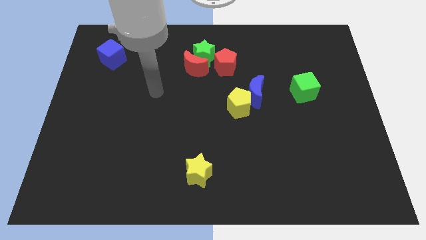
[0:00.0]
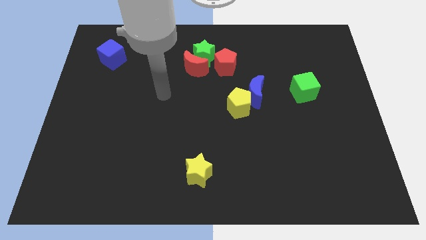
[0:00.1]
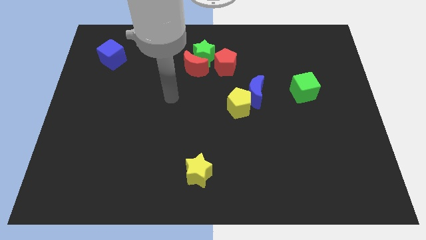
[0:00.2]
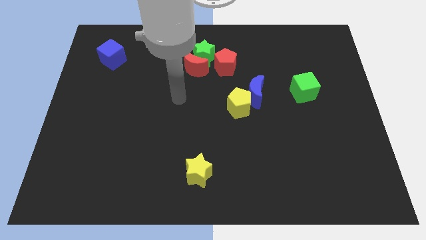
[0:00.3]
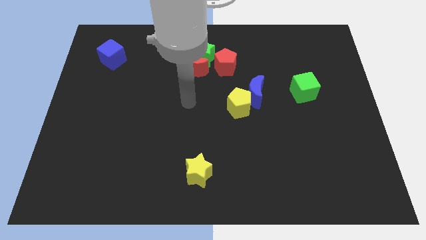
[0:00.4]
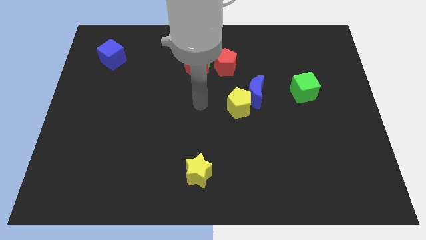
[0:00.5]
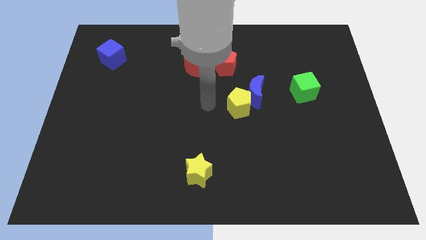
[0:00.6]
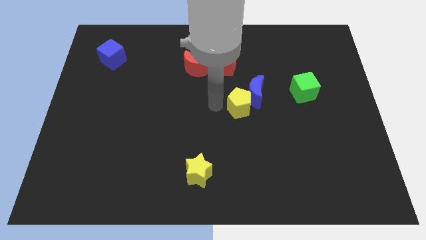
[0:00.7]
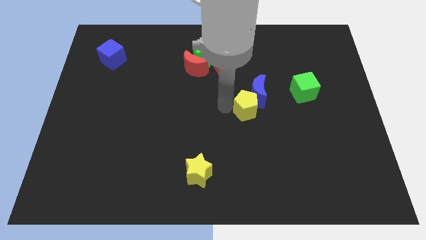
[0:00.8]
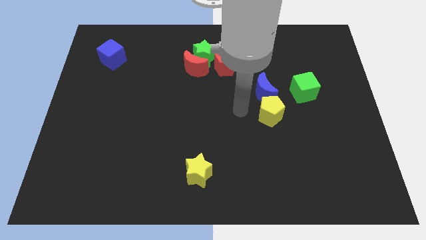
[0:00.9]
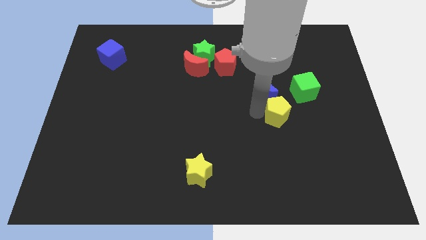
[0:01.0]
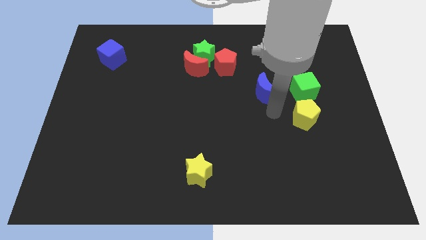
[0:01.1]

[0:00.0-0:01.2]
pull the blue moon apart from the yellow pentagon

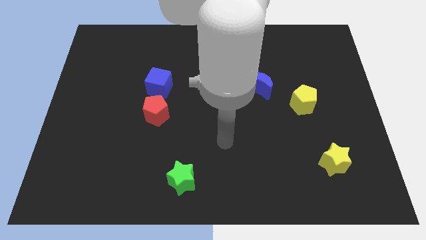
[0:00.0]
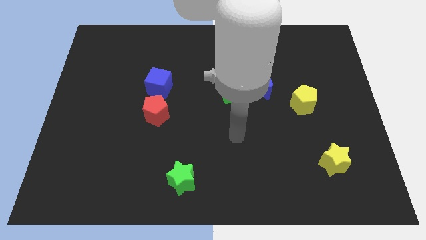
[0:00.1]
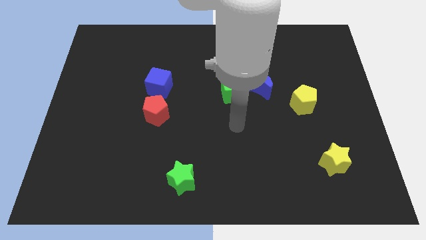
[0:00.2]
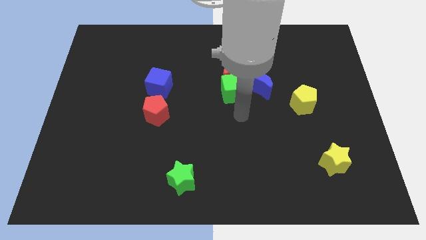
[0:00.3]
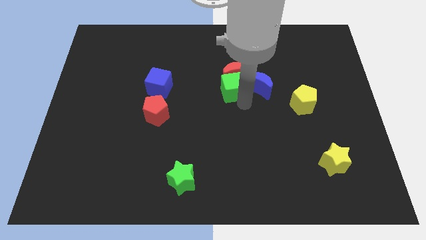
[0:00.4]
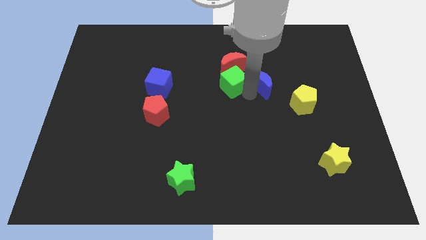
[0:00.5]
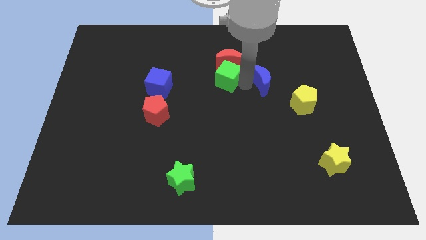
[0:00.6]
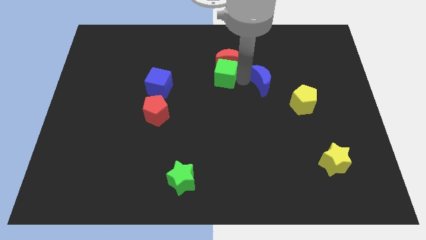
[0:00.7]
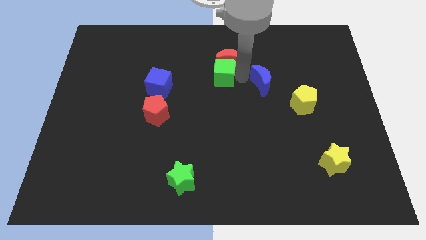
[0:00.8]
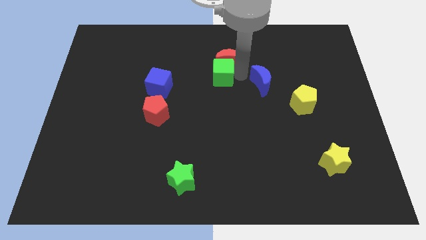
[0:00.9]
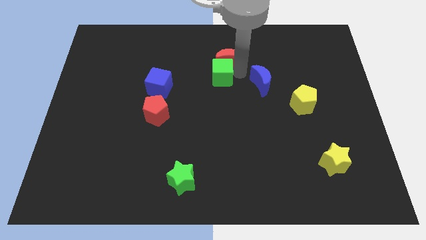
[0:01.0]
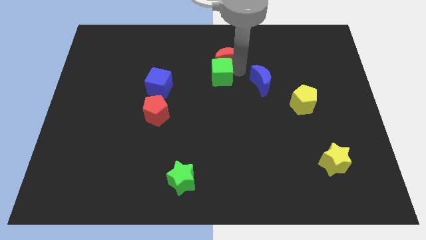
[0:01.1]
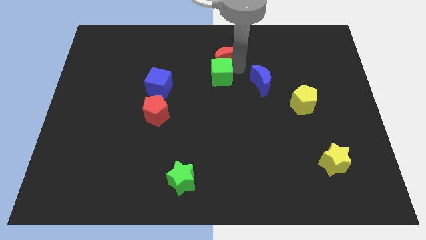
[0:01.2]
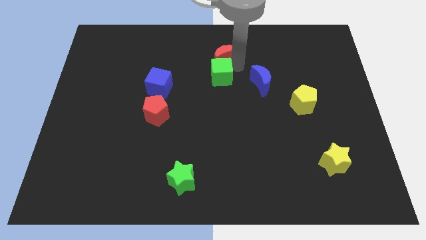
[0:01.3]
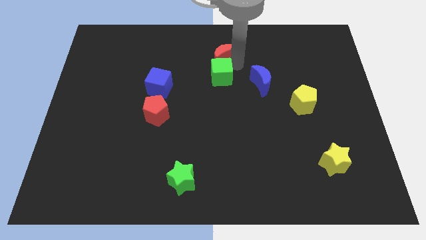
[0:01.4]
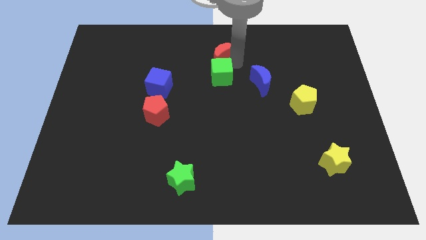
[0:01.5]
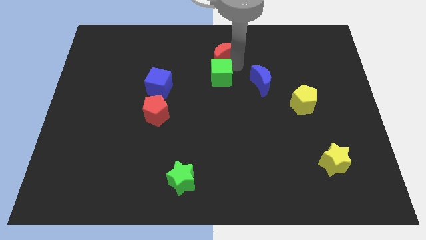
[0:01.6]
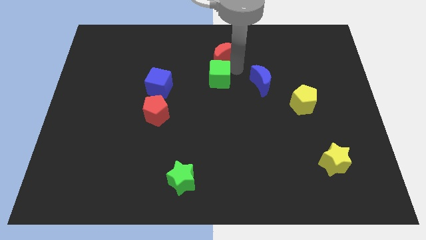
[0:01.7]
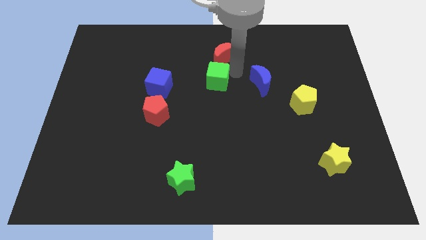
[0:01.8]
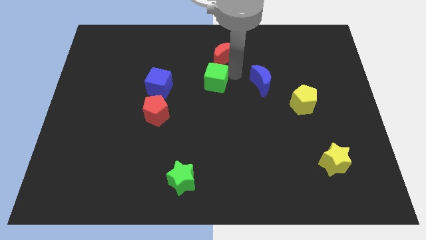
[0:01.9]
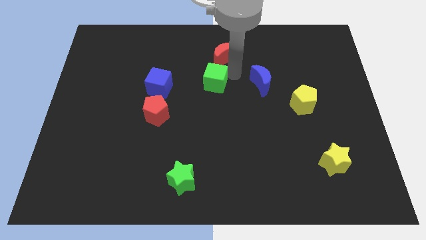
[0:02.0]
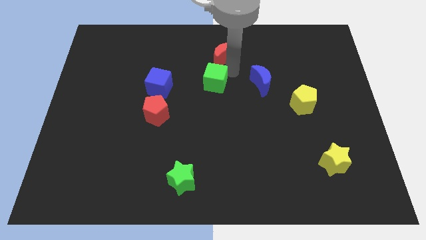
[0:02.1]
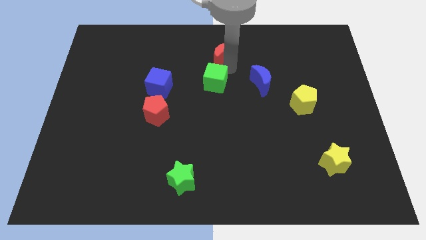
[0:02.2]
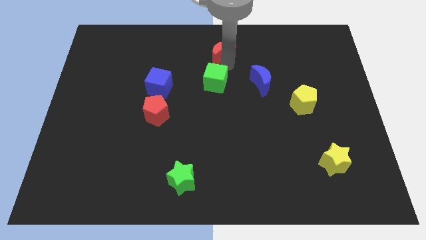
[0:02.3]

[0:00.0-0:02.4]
move the red moon away from the green cube and blue moon

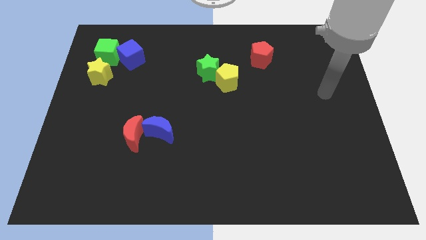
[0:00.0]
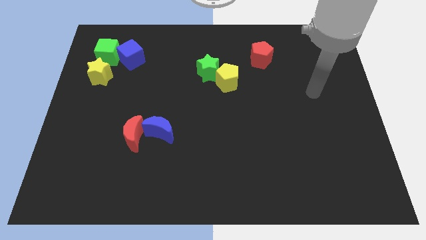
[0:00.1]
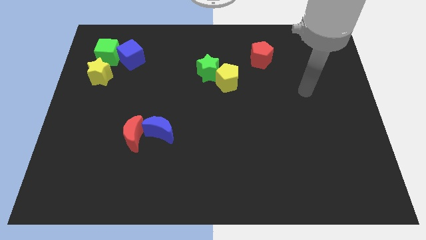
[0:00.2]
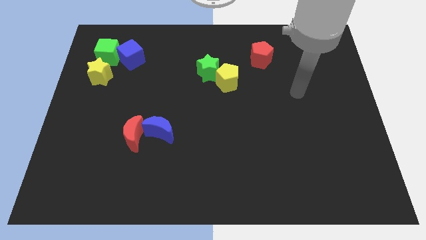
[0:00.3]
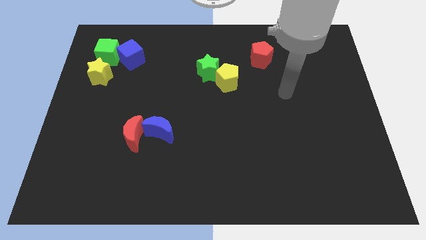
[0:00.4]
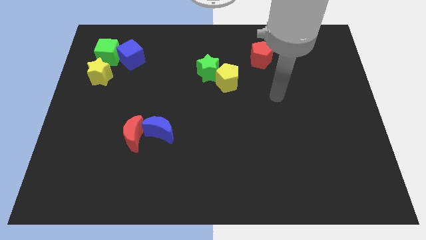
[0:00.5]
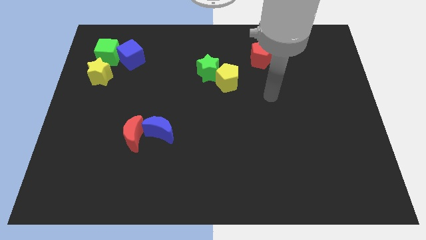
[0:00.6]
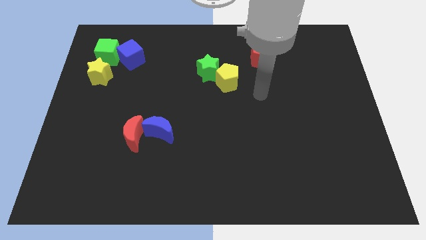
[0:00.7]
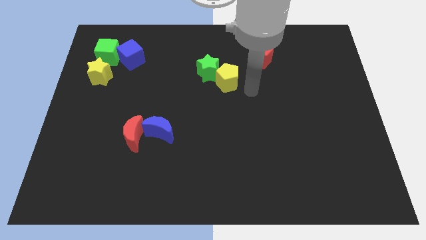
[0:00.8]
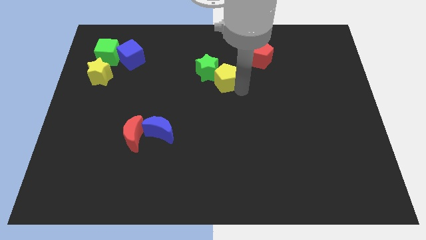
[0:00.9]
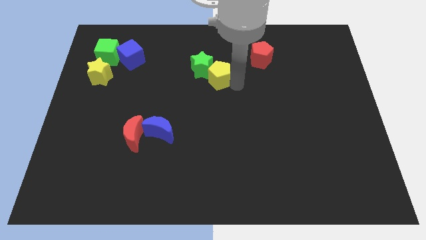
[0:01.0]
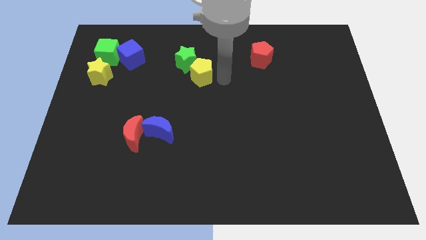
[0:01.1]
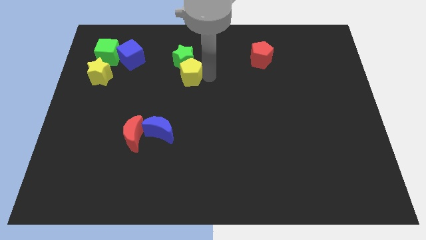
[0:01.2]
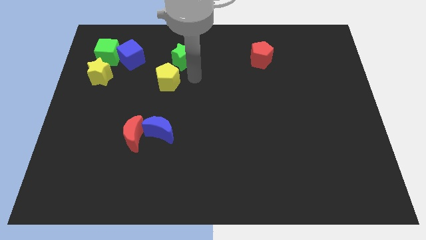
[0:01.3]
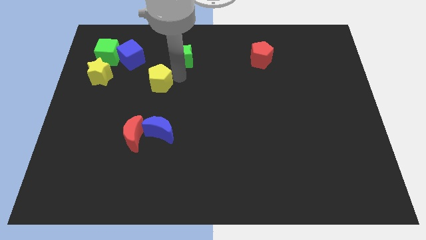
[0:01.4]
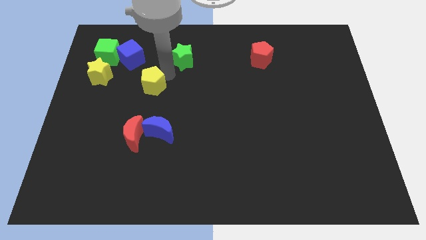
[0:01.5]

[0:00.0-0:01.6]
pull the green star apart from the yellow pentagon

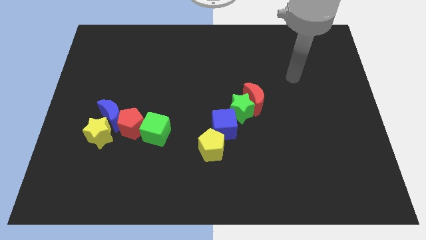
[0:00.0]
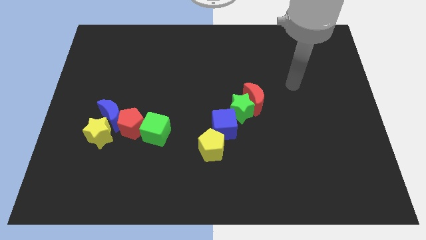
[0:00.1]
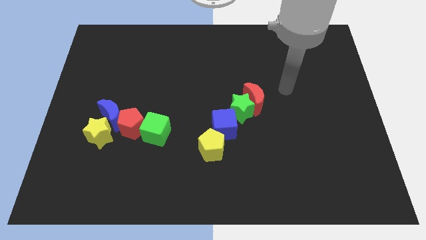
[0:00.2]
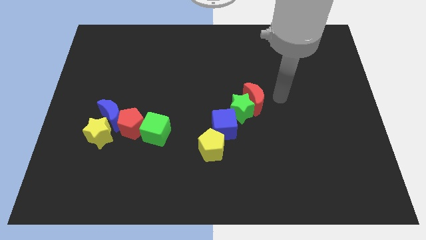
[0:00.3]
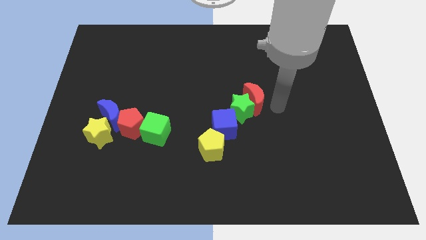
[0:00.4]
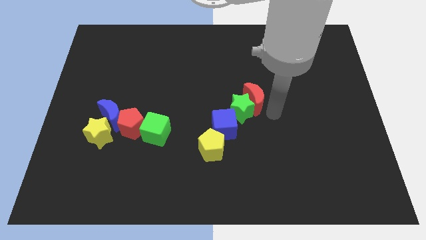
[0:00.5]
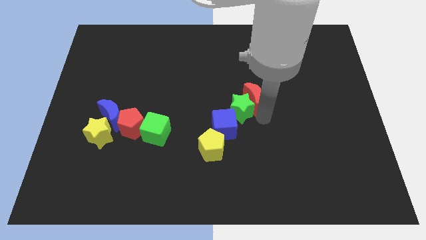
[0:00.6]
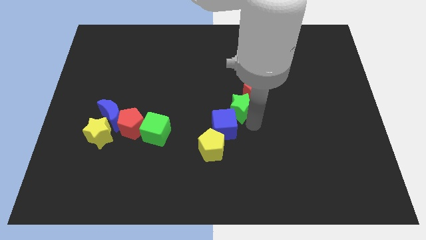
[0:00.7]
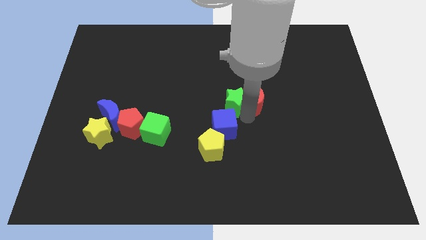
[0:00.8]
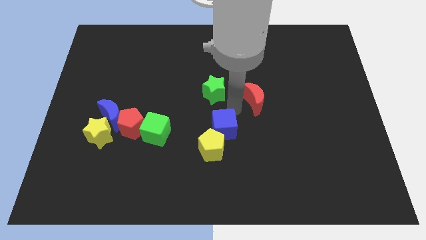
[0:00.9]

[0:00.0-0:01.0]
move the red moon away from the green star

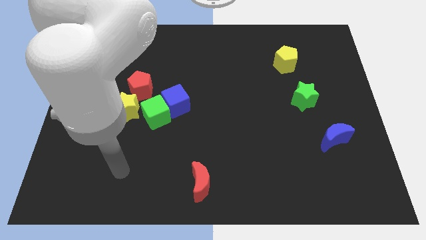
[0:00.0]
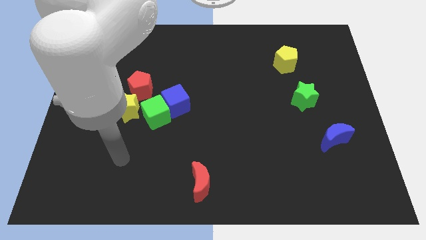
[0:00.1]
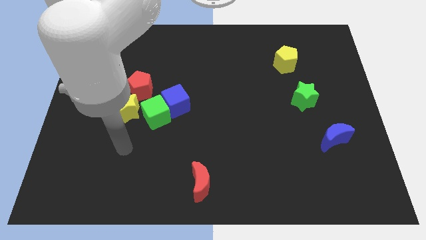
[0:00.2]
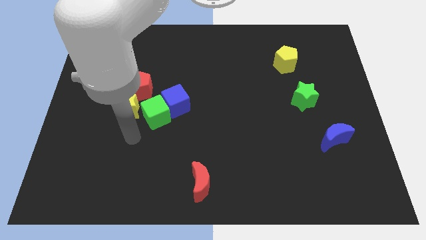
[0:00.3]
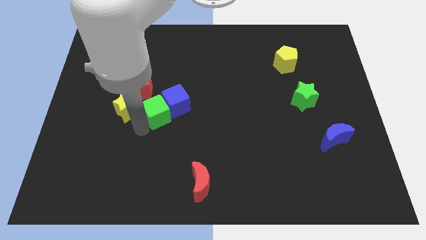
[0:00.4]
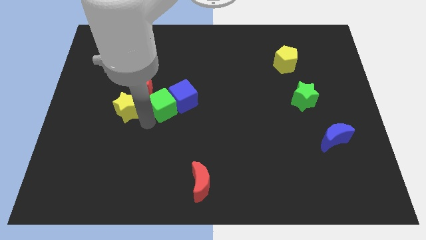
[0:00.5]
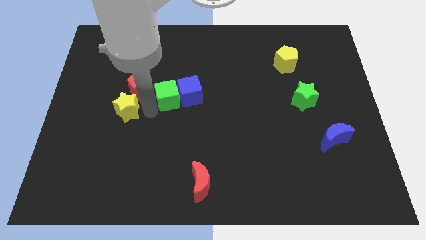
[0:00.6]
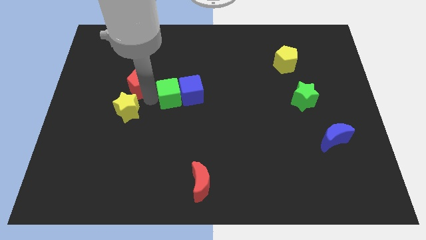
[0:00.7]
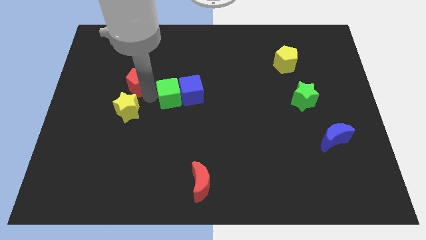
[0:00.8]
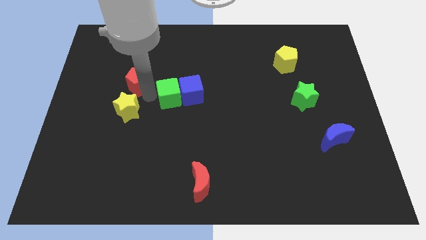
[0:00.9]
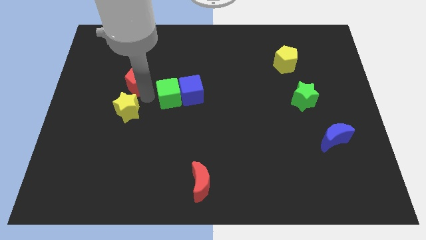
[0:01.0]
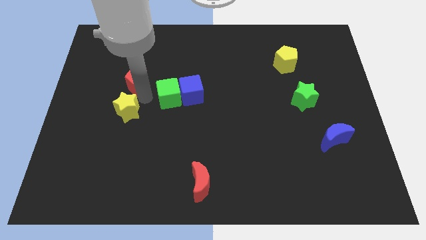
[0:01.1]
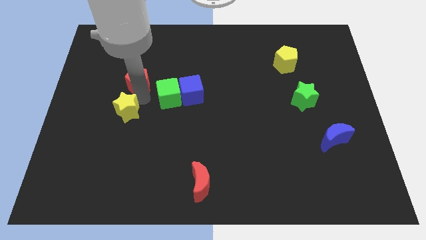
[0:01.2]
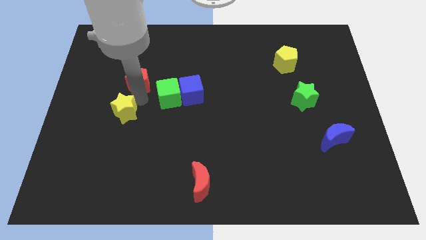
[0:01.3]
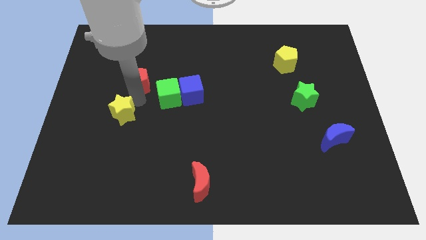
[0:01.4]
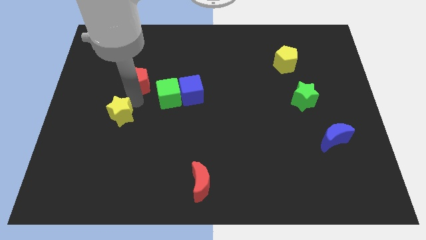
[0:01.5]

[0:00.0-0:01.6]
separate the yellow star from the red pentagon and green cube

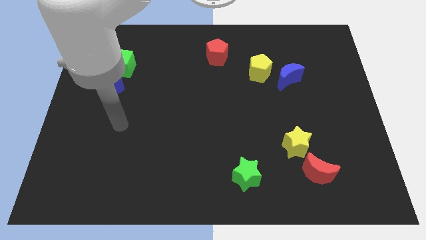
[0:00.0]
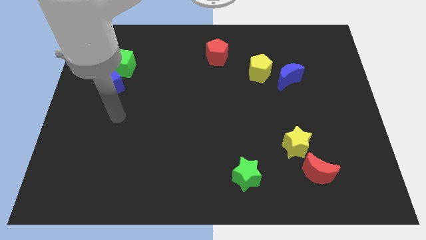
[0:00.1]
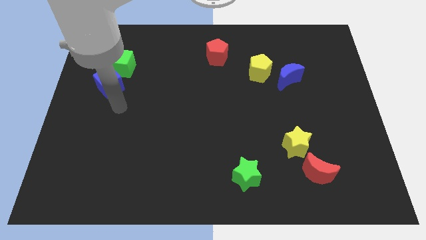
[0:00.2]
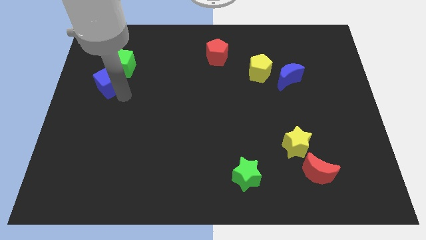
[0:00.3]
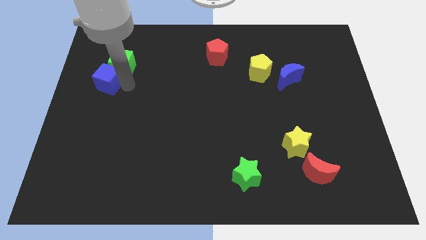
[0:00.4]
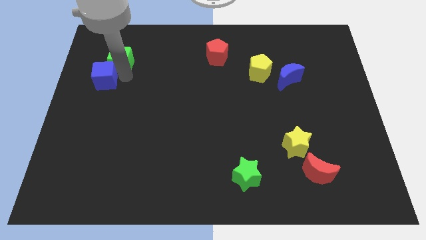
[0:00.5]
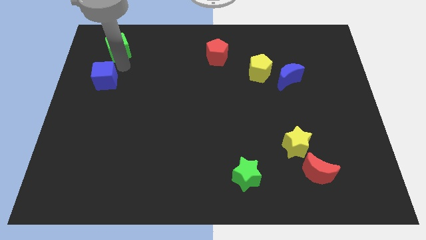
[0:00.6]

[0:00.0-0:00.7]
move the blue cube away from the green cube

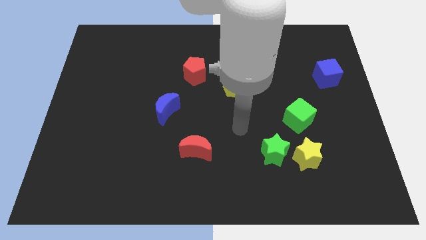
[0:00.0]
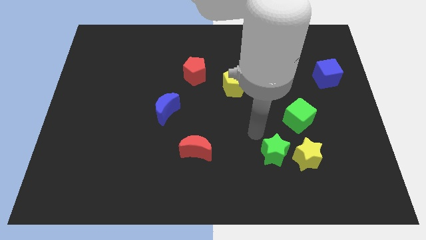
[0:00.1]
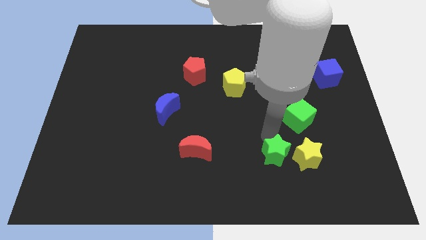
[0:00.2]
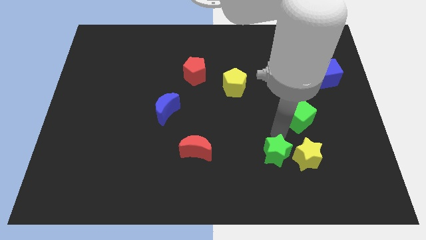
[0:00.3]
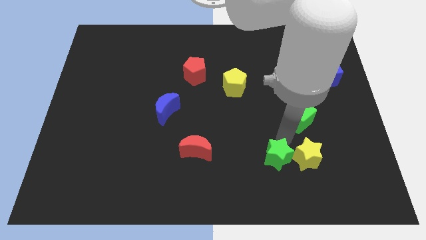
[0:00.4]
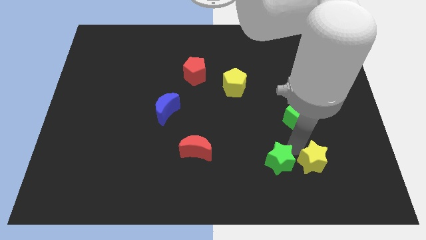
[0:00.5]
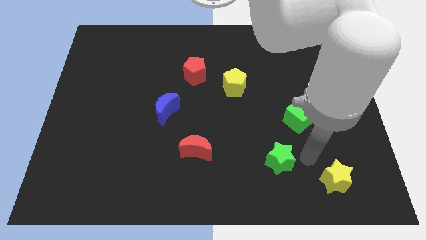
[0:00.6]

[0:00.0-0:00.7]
separate the green star from the yellow star
